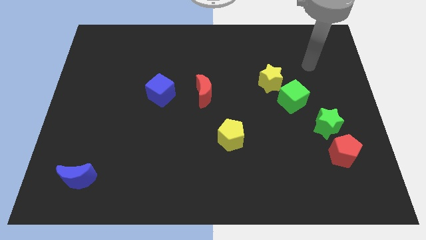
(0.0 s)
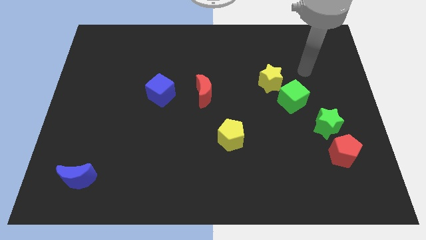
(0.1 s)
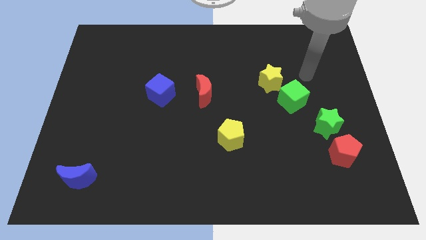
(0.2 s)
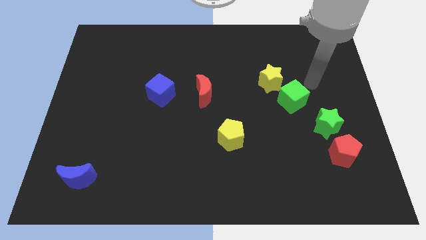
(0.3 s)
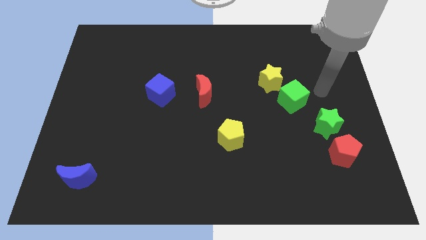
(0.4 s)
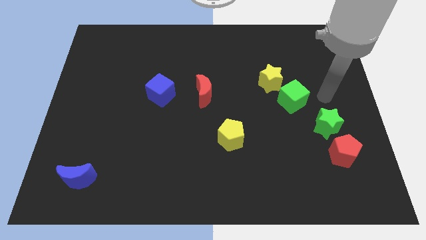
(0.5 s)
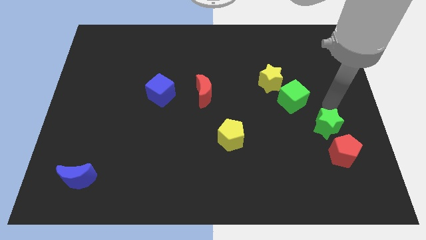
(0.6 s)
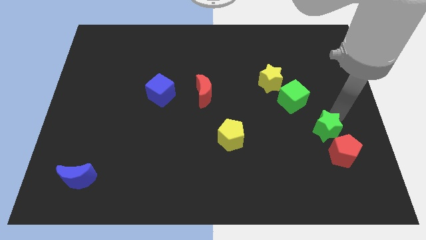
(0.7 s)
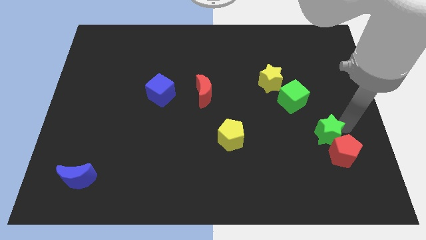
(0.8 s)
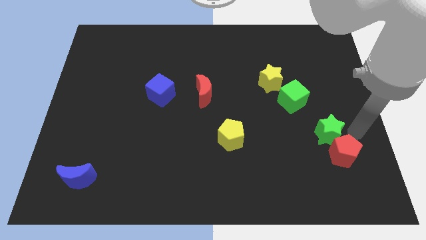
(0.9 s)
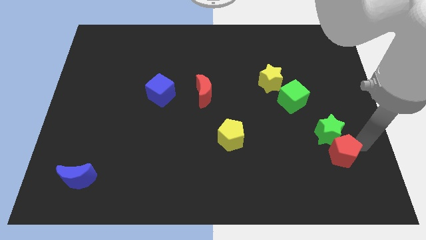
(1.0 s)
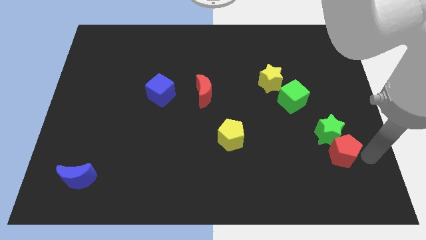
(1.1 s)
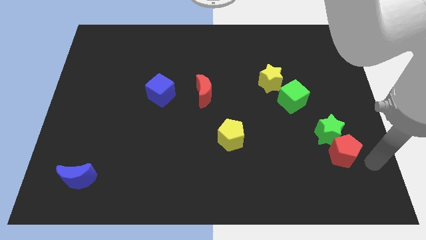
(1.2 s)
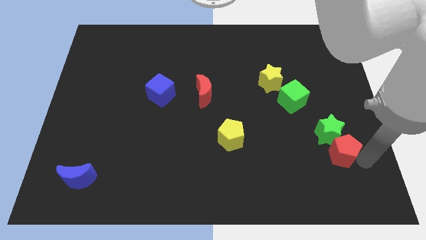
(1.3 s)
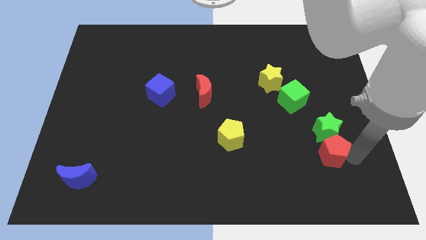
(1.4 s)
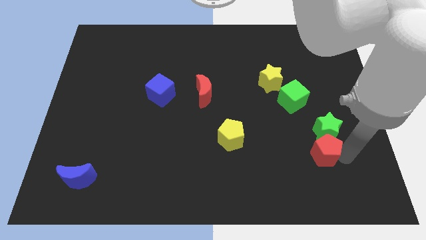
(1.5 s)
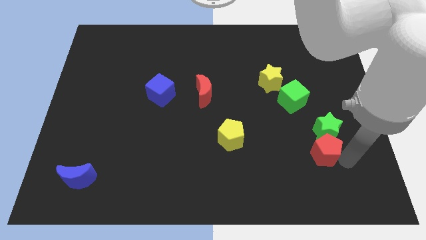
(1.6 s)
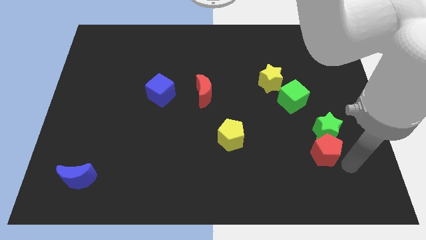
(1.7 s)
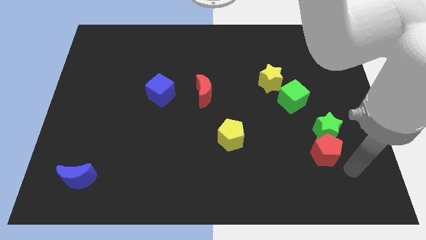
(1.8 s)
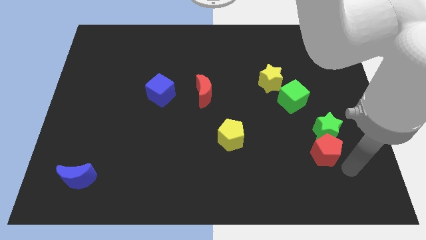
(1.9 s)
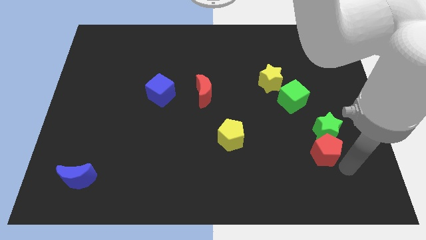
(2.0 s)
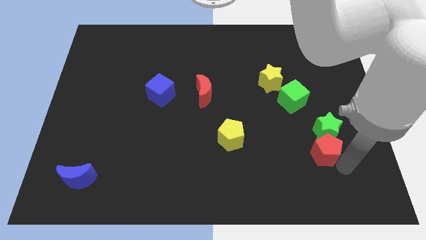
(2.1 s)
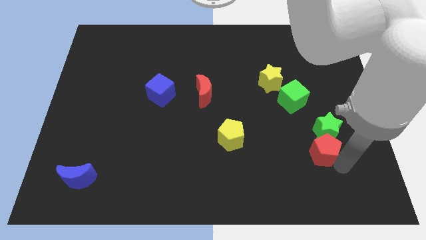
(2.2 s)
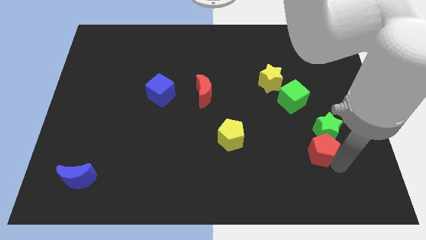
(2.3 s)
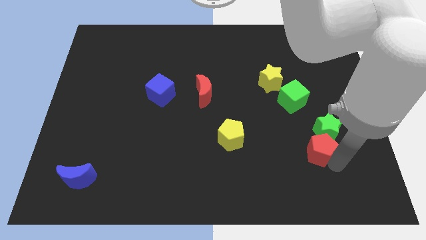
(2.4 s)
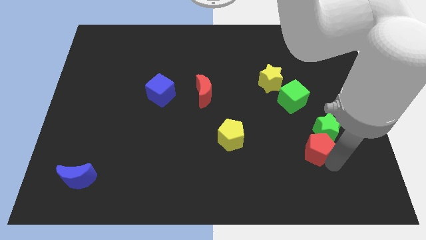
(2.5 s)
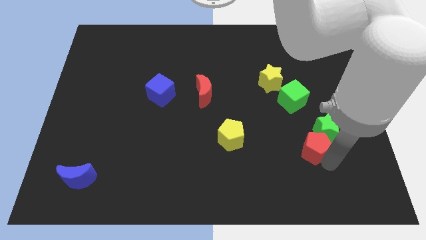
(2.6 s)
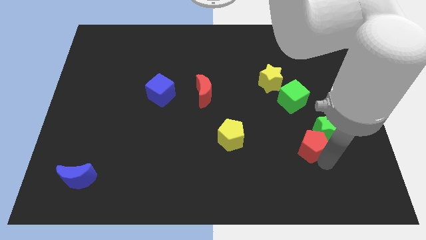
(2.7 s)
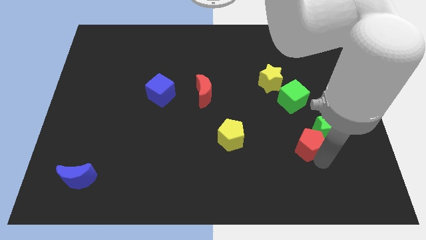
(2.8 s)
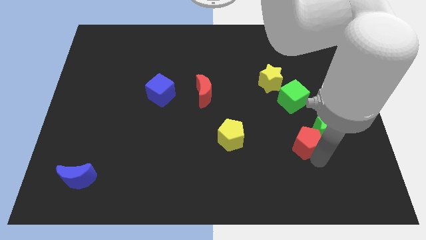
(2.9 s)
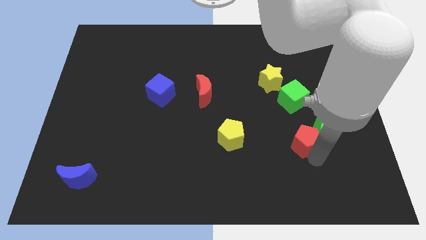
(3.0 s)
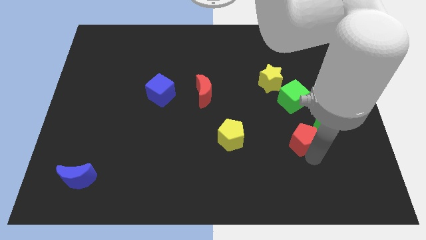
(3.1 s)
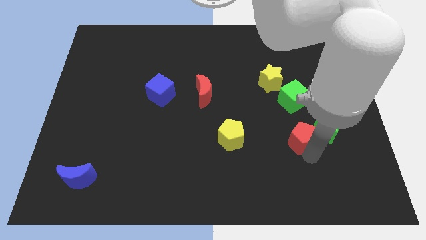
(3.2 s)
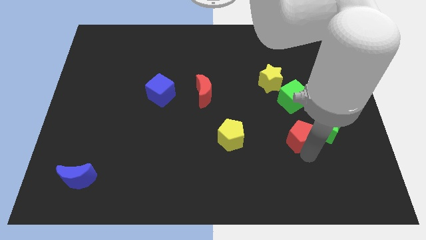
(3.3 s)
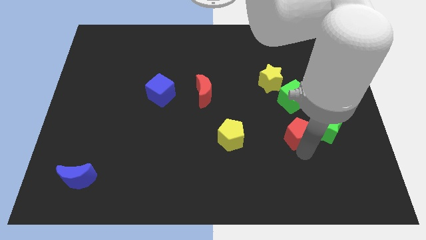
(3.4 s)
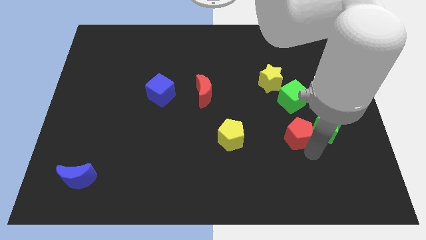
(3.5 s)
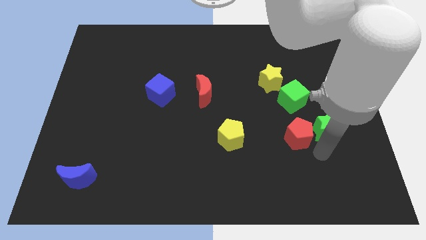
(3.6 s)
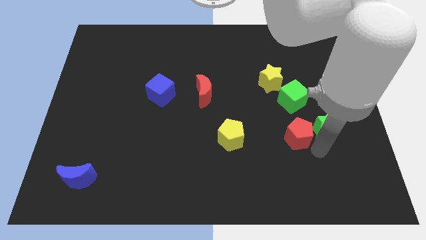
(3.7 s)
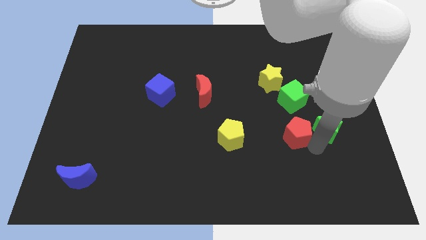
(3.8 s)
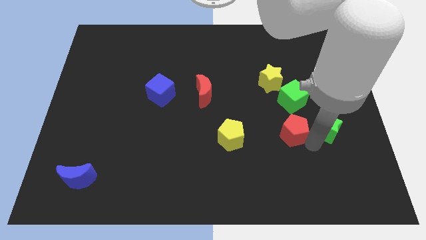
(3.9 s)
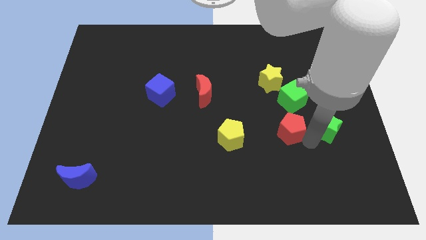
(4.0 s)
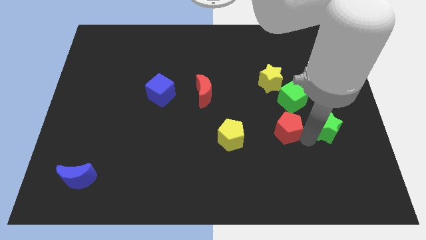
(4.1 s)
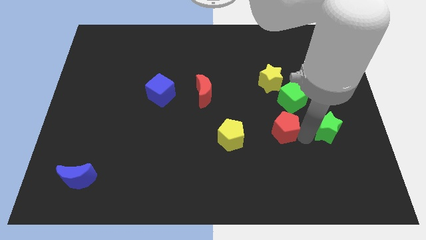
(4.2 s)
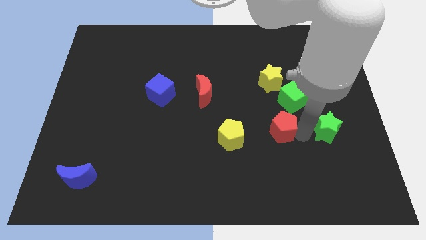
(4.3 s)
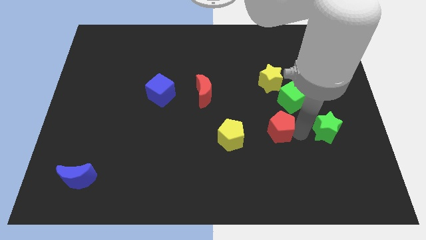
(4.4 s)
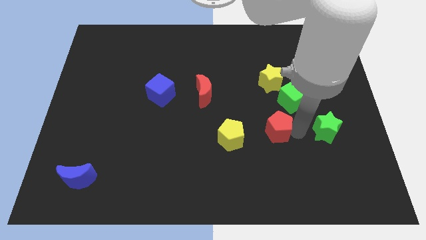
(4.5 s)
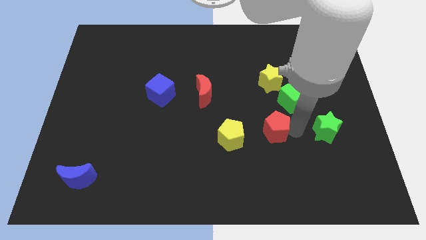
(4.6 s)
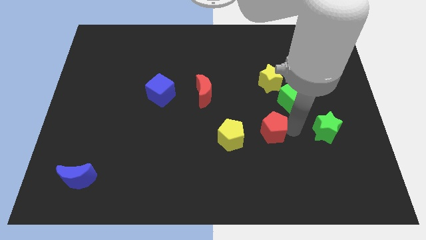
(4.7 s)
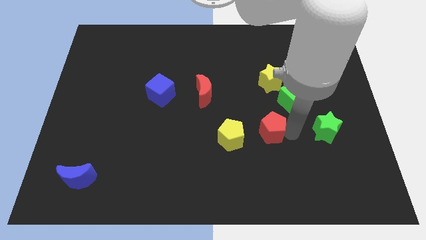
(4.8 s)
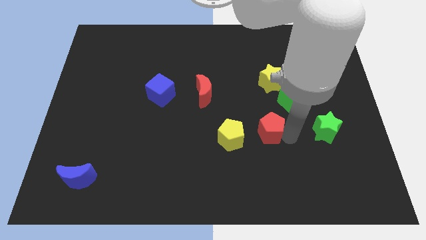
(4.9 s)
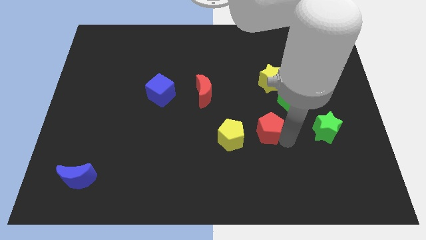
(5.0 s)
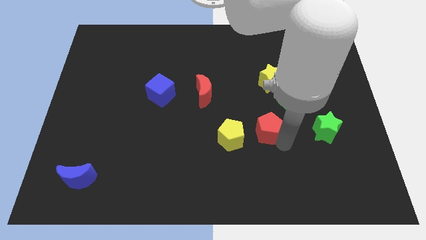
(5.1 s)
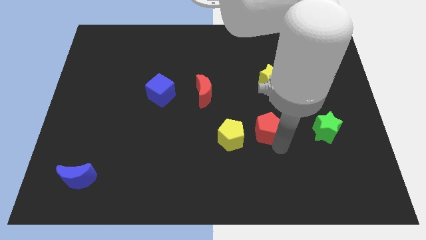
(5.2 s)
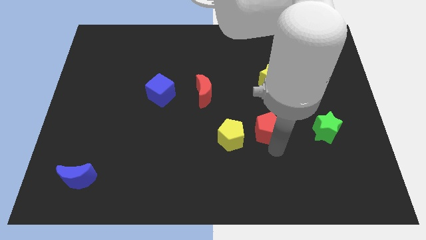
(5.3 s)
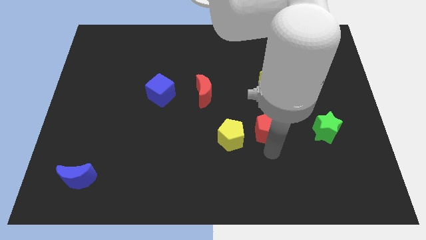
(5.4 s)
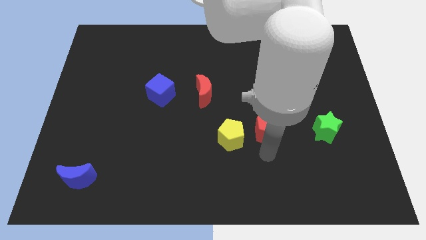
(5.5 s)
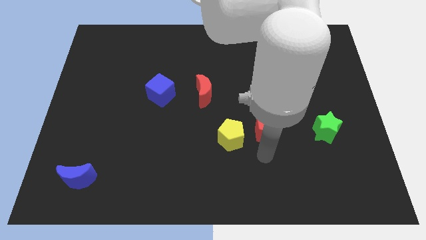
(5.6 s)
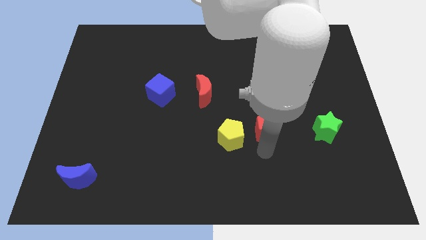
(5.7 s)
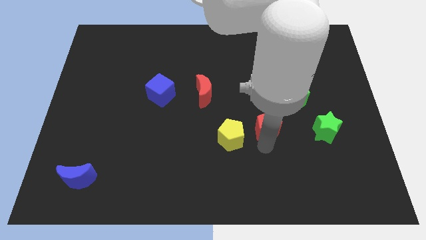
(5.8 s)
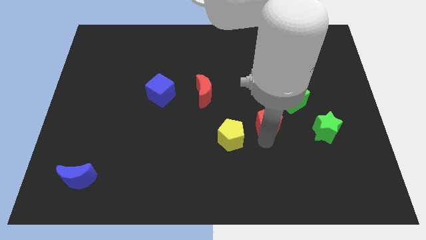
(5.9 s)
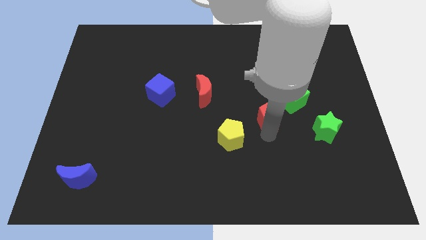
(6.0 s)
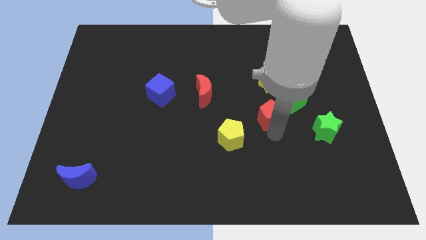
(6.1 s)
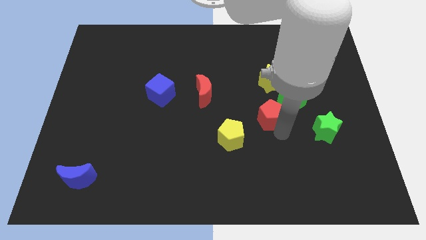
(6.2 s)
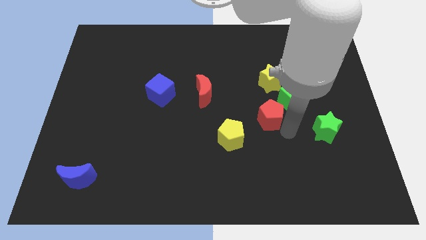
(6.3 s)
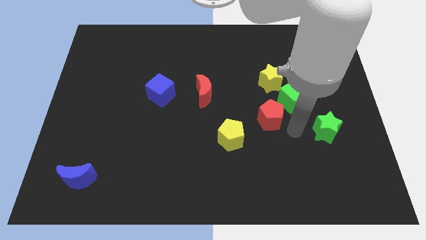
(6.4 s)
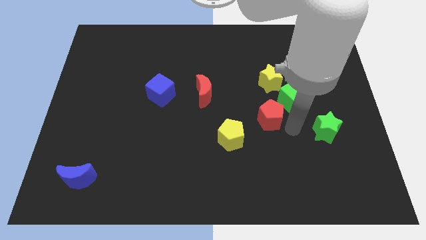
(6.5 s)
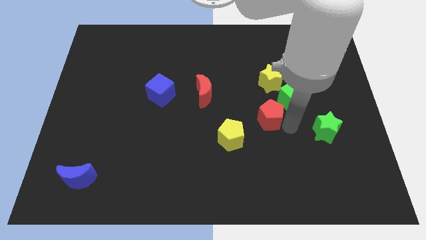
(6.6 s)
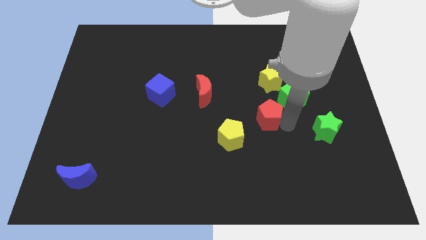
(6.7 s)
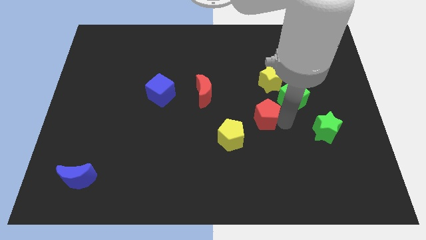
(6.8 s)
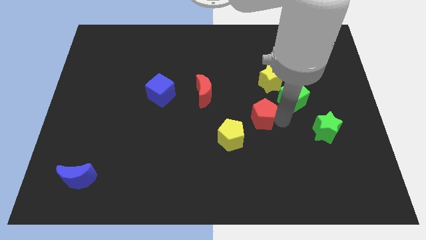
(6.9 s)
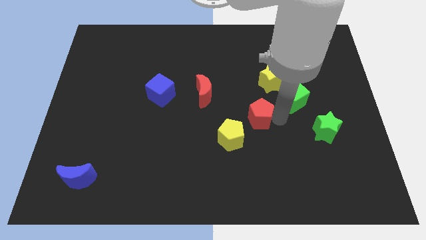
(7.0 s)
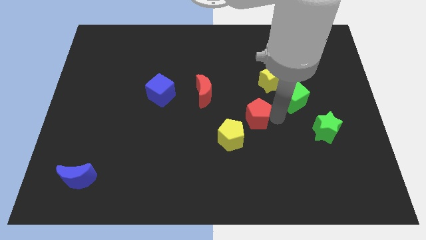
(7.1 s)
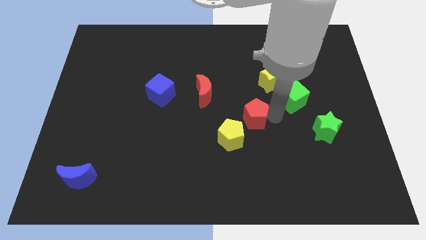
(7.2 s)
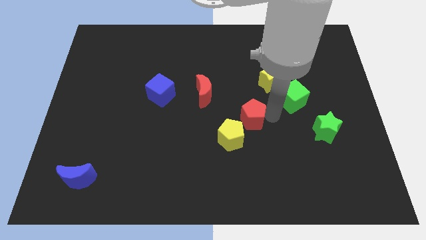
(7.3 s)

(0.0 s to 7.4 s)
put the red pentagon to the top of the yellow pentagon
